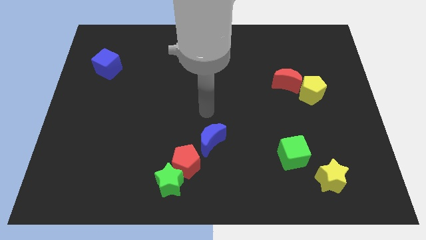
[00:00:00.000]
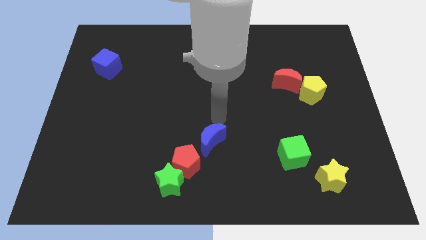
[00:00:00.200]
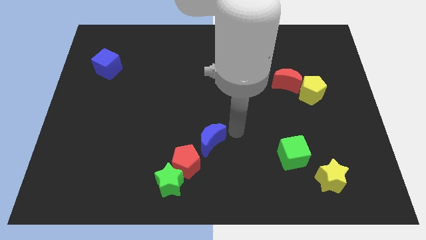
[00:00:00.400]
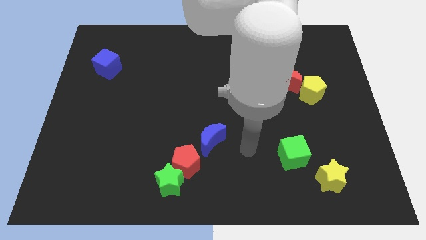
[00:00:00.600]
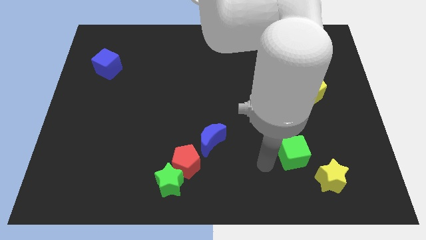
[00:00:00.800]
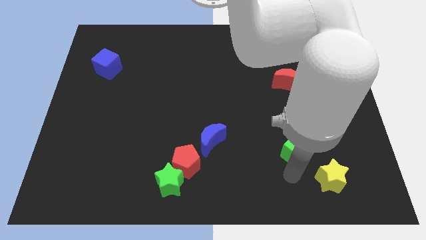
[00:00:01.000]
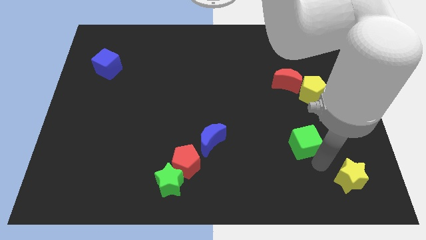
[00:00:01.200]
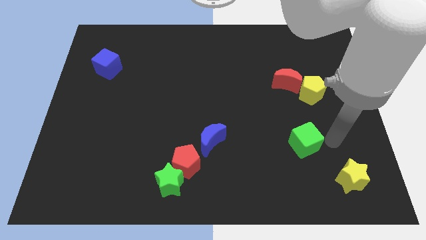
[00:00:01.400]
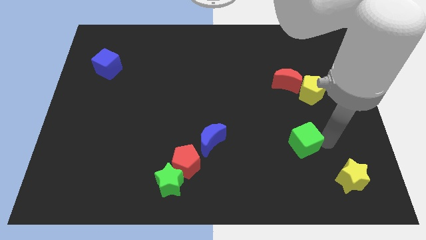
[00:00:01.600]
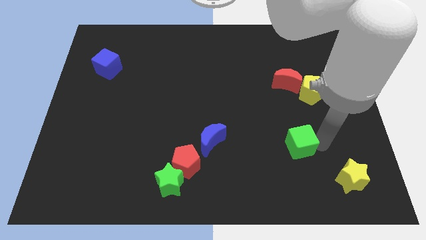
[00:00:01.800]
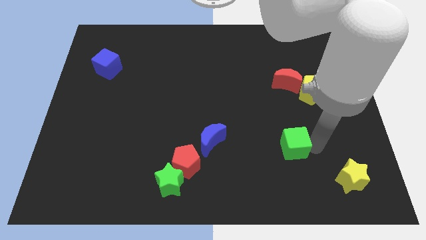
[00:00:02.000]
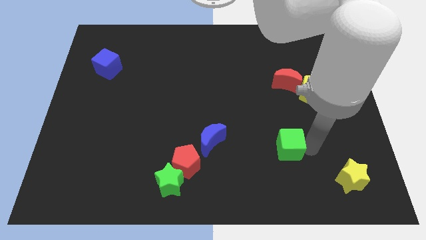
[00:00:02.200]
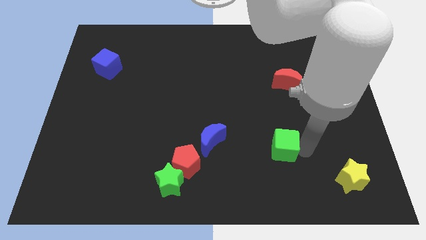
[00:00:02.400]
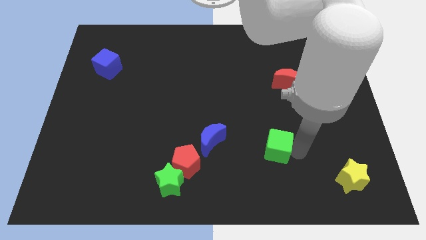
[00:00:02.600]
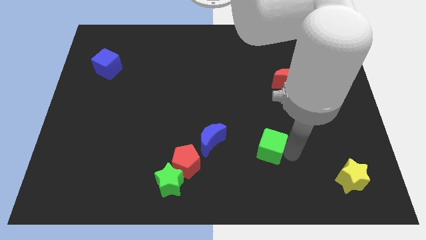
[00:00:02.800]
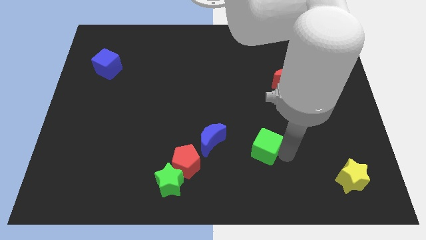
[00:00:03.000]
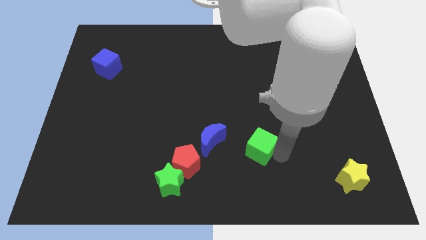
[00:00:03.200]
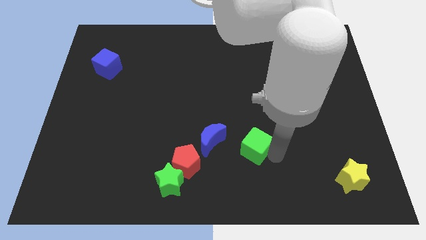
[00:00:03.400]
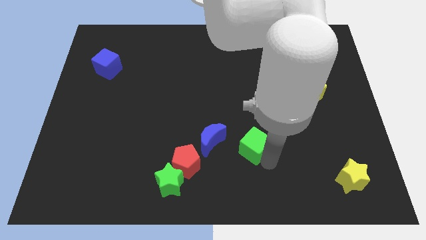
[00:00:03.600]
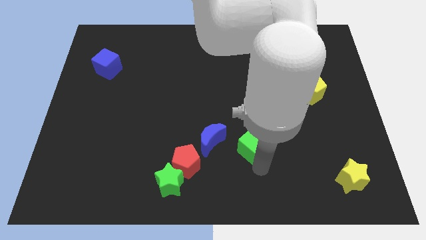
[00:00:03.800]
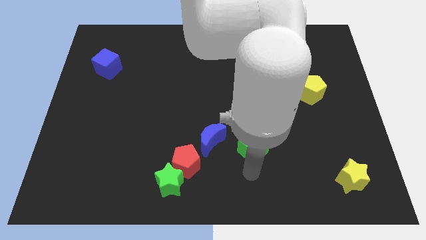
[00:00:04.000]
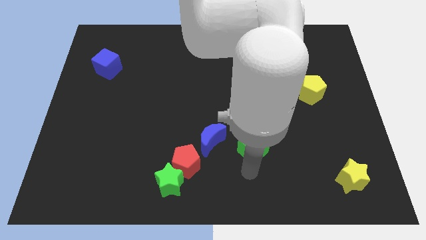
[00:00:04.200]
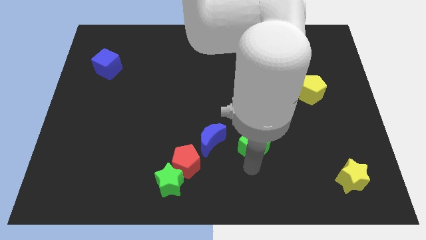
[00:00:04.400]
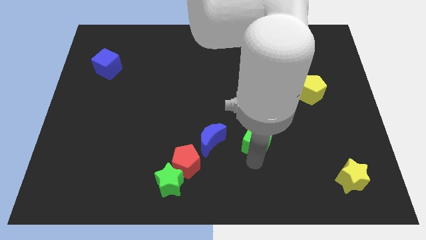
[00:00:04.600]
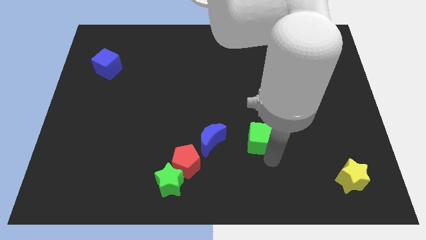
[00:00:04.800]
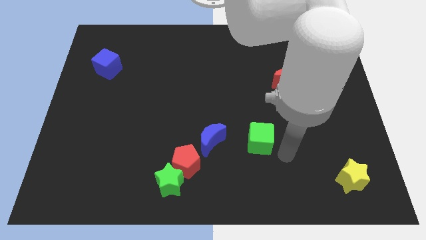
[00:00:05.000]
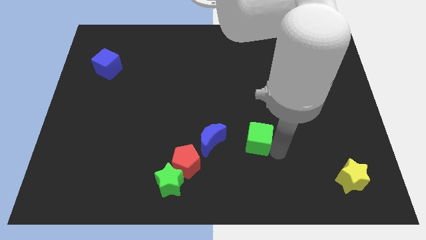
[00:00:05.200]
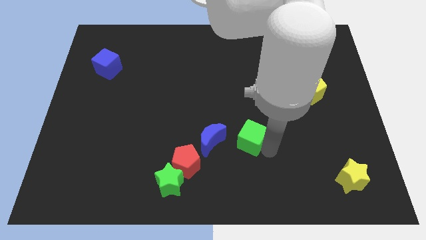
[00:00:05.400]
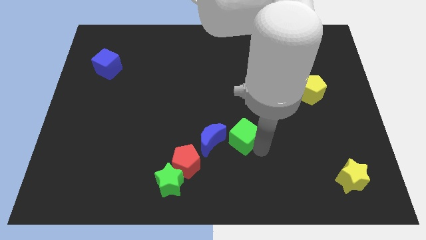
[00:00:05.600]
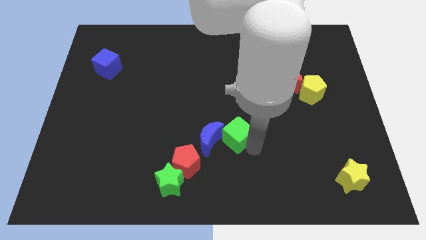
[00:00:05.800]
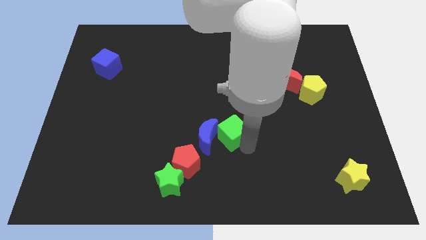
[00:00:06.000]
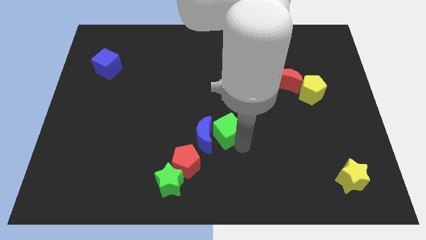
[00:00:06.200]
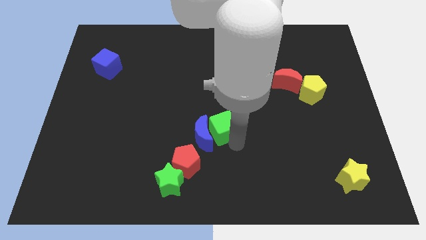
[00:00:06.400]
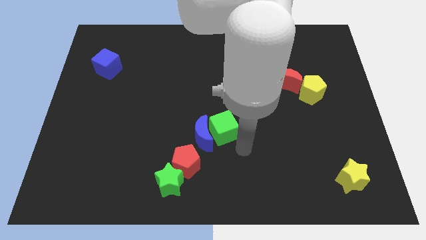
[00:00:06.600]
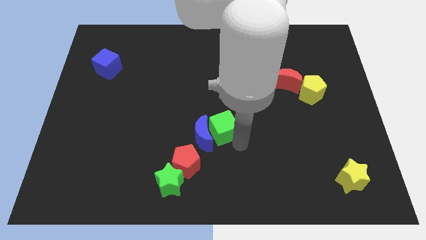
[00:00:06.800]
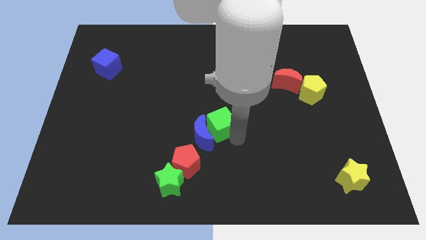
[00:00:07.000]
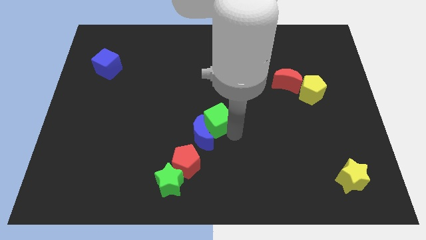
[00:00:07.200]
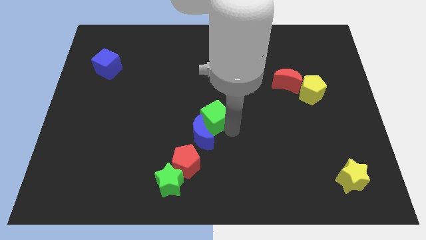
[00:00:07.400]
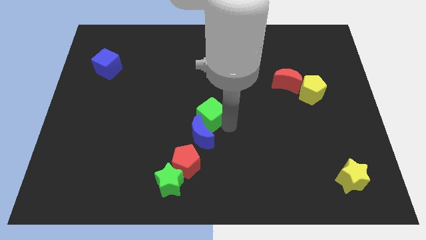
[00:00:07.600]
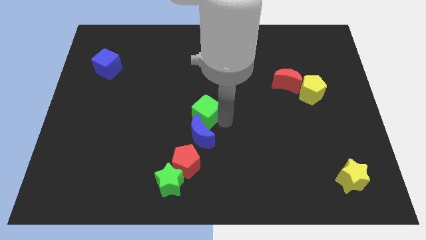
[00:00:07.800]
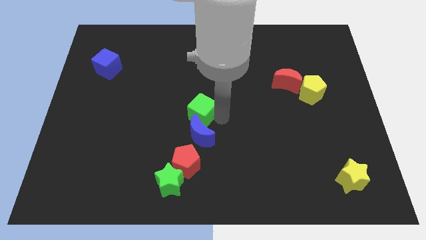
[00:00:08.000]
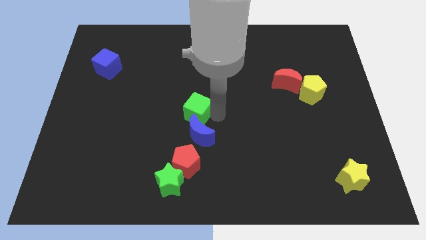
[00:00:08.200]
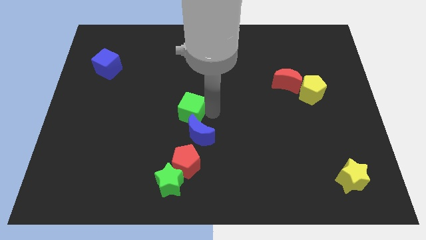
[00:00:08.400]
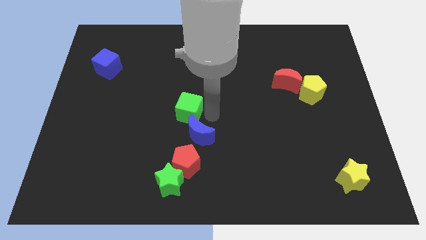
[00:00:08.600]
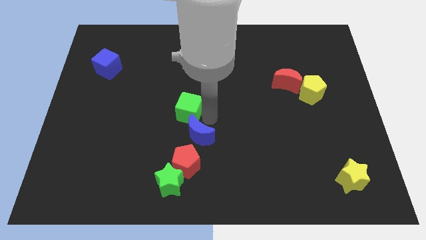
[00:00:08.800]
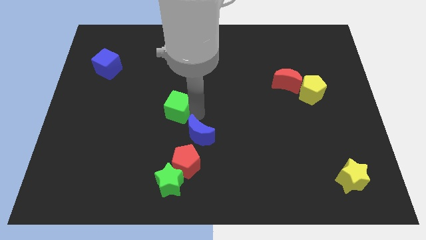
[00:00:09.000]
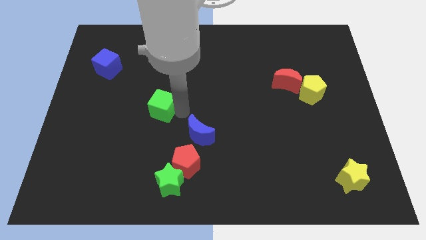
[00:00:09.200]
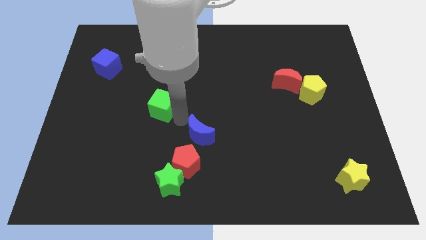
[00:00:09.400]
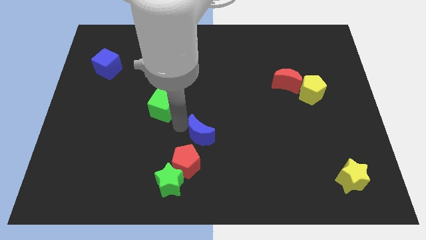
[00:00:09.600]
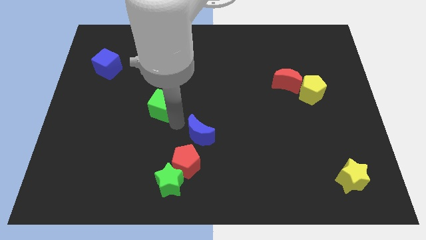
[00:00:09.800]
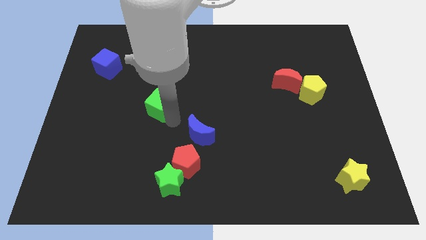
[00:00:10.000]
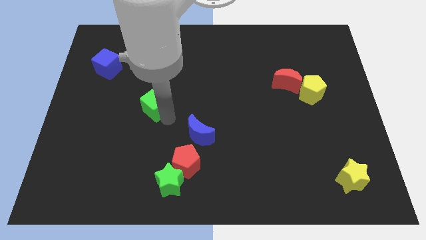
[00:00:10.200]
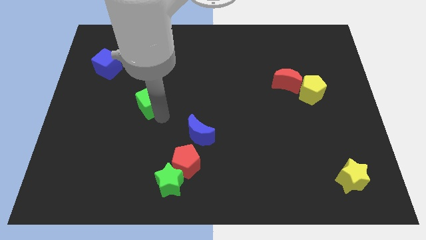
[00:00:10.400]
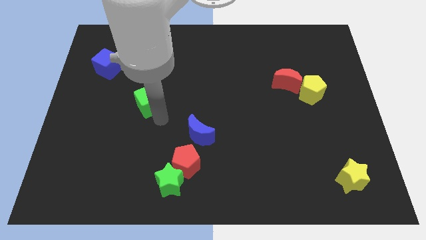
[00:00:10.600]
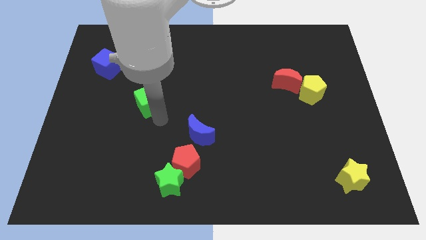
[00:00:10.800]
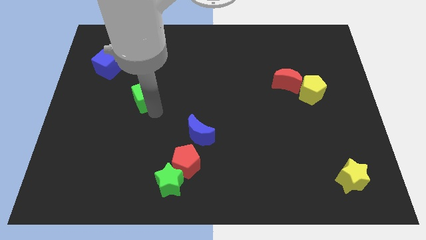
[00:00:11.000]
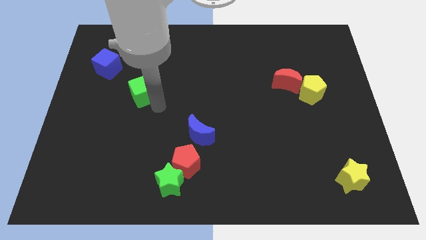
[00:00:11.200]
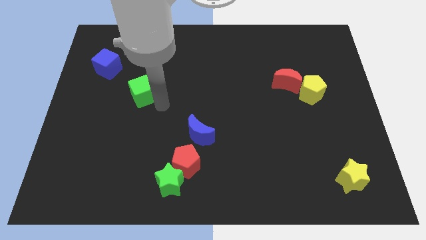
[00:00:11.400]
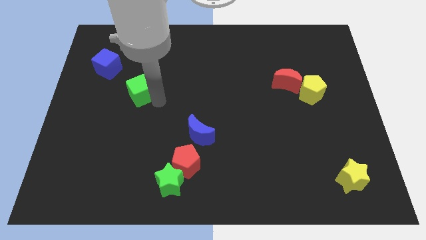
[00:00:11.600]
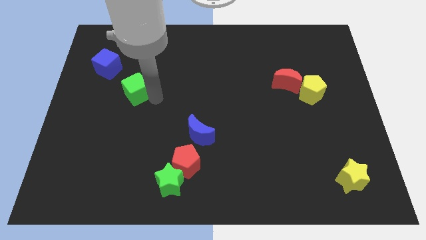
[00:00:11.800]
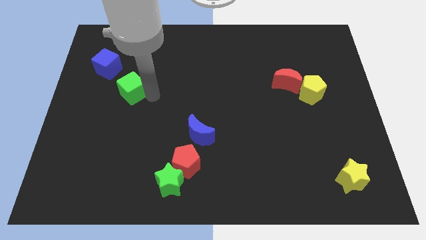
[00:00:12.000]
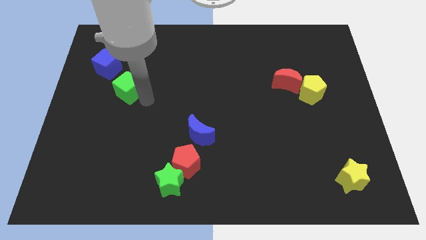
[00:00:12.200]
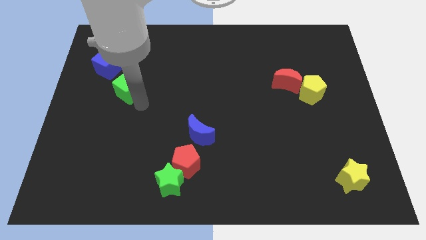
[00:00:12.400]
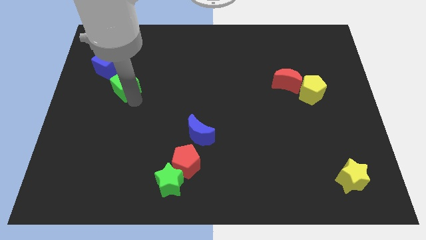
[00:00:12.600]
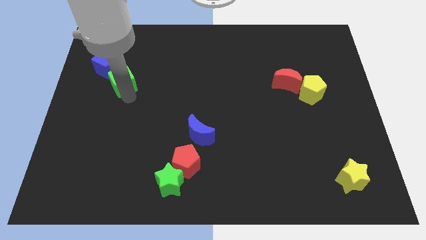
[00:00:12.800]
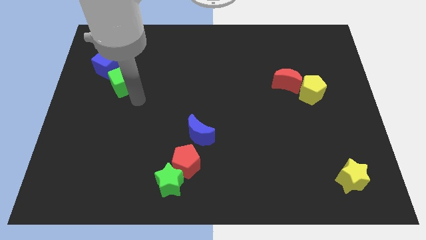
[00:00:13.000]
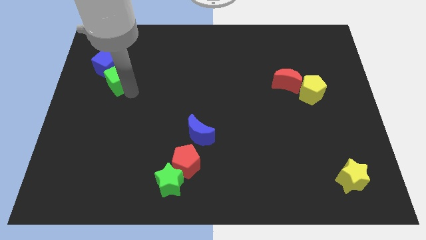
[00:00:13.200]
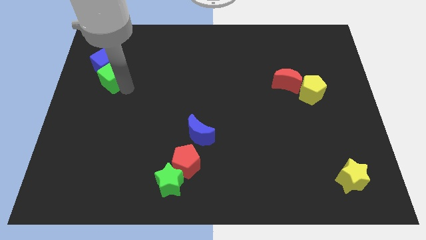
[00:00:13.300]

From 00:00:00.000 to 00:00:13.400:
move the green cube to the blue cube

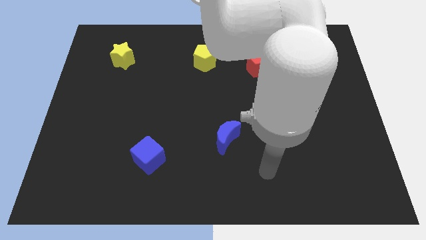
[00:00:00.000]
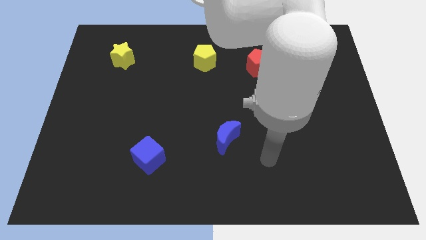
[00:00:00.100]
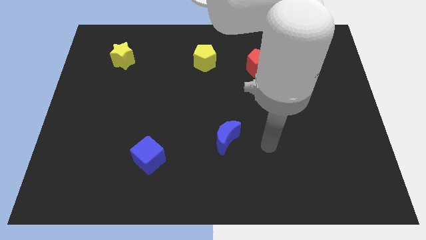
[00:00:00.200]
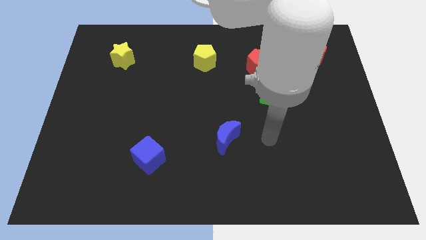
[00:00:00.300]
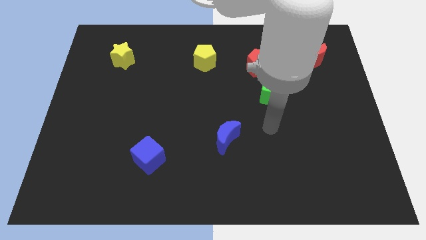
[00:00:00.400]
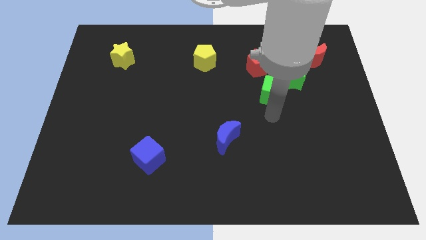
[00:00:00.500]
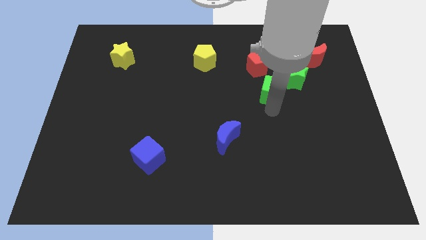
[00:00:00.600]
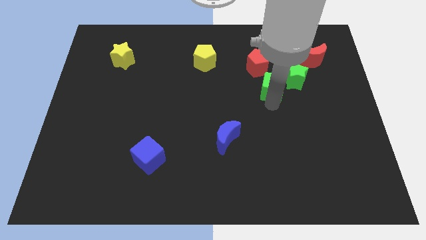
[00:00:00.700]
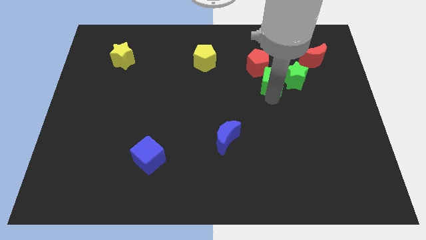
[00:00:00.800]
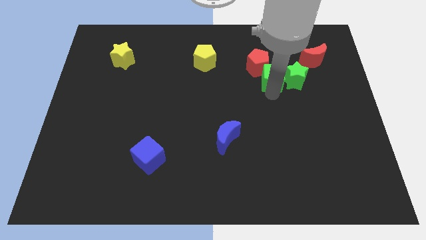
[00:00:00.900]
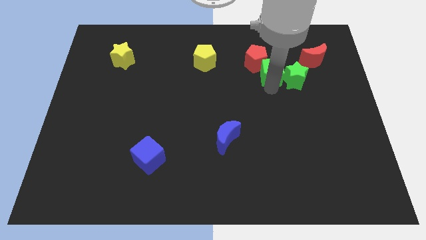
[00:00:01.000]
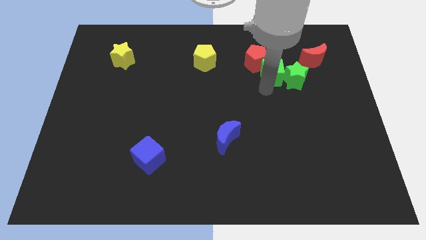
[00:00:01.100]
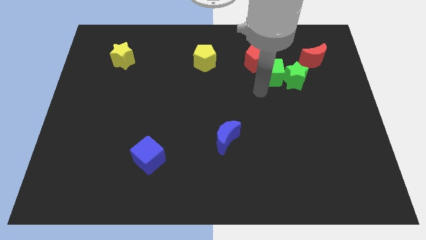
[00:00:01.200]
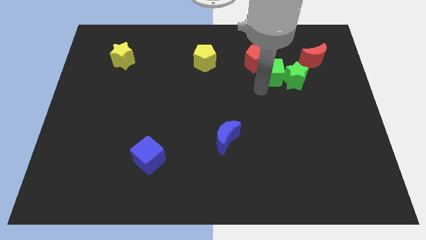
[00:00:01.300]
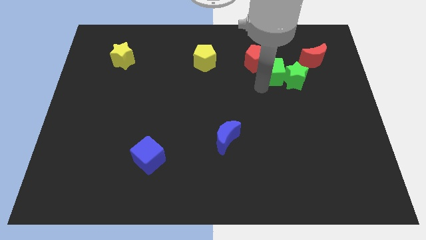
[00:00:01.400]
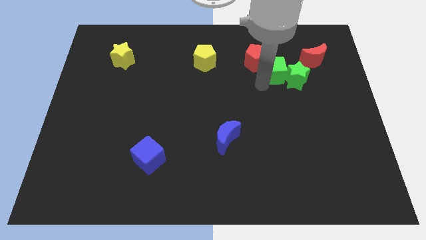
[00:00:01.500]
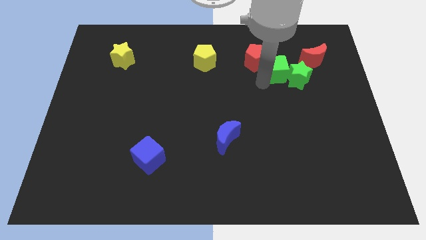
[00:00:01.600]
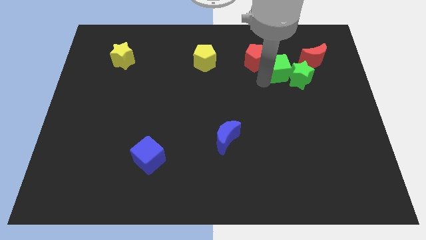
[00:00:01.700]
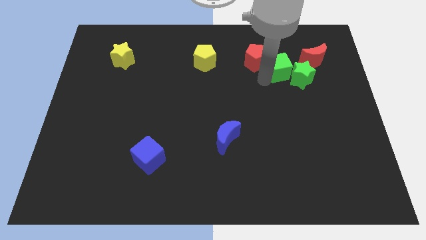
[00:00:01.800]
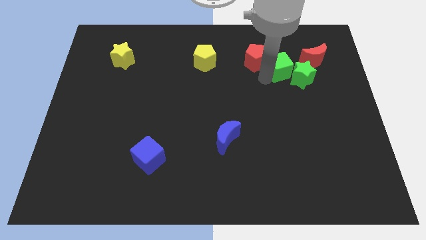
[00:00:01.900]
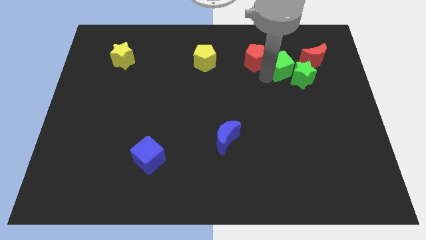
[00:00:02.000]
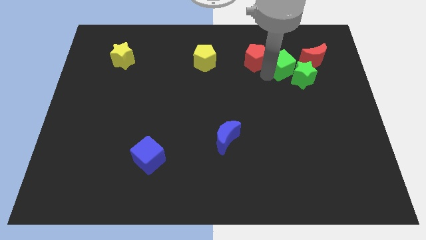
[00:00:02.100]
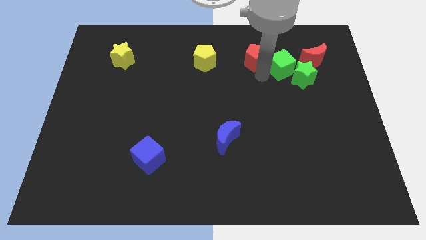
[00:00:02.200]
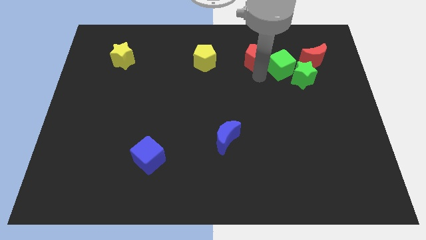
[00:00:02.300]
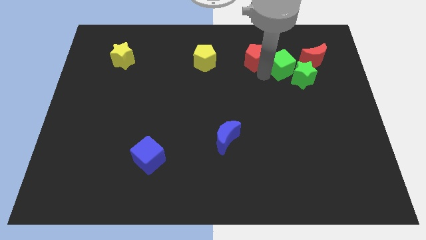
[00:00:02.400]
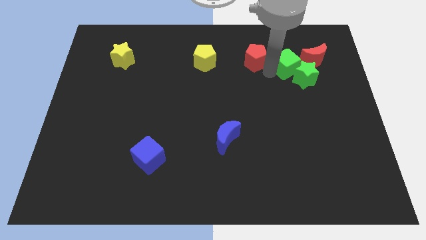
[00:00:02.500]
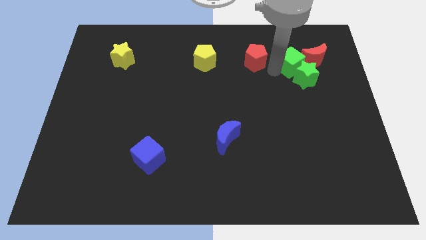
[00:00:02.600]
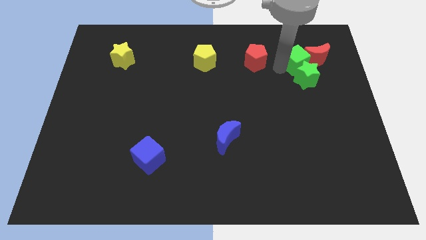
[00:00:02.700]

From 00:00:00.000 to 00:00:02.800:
put the green cube to the red moon
